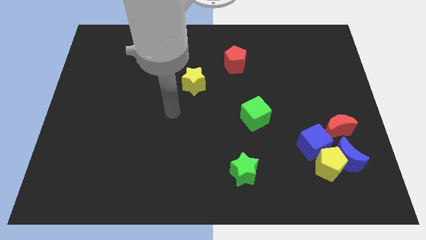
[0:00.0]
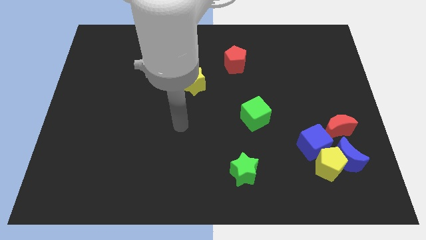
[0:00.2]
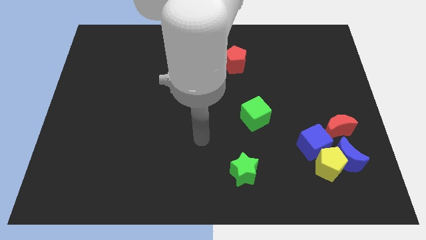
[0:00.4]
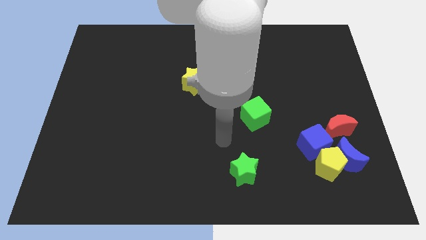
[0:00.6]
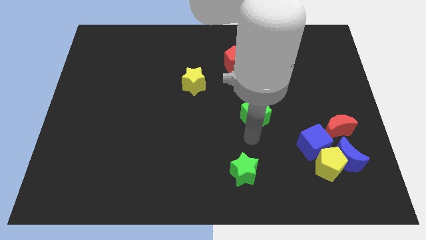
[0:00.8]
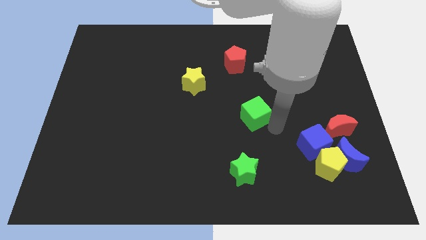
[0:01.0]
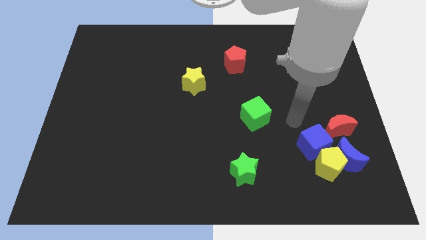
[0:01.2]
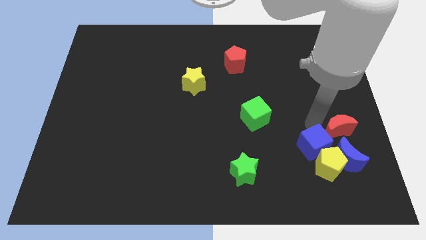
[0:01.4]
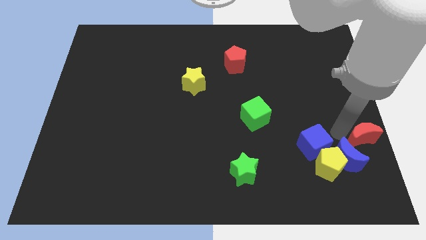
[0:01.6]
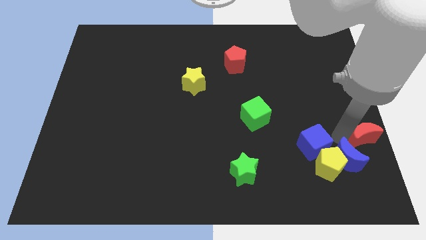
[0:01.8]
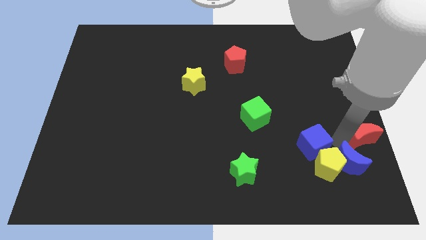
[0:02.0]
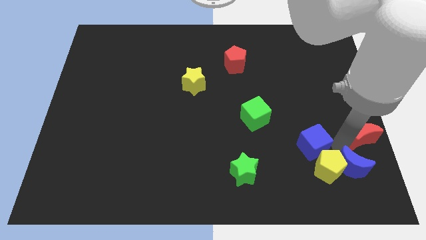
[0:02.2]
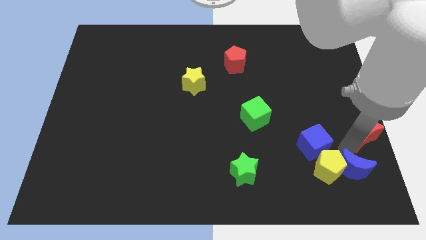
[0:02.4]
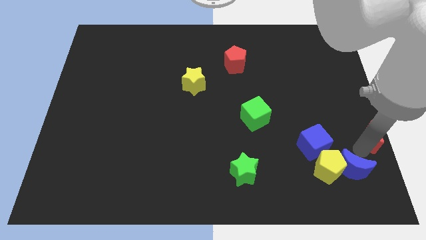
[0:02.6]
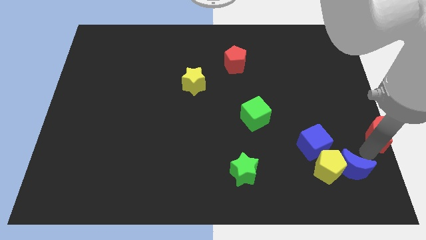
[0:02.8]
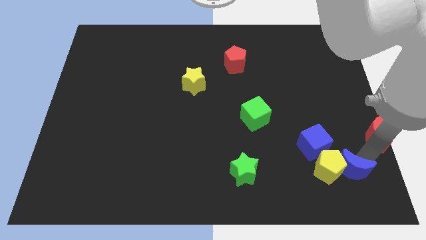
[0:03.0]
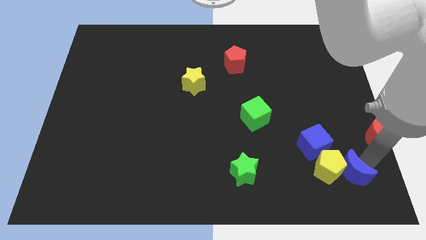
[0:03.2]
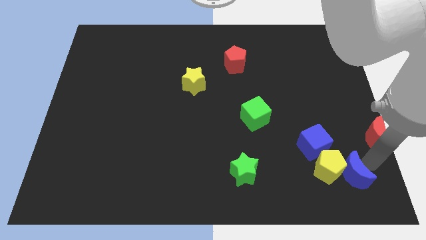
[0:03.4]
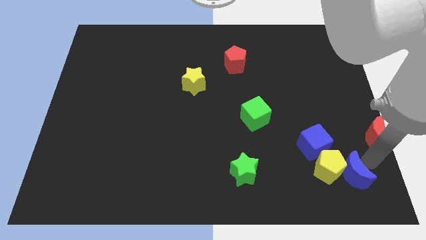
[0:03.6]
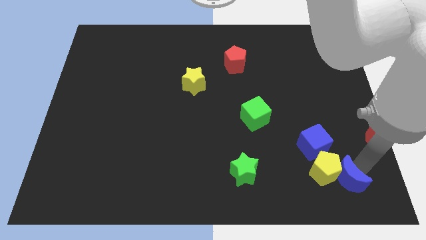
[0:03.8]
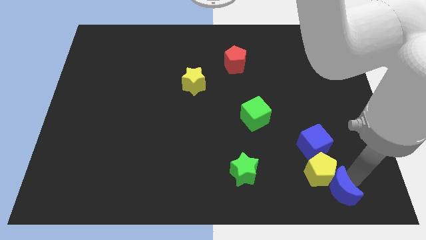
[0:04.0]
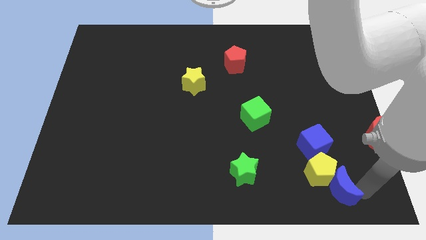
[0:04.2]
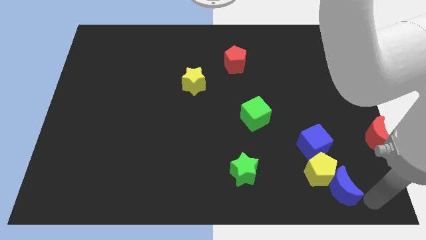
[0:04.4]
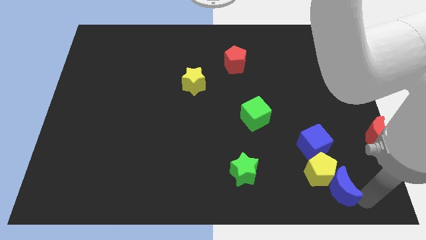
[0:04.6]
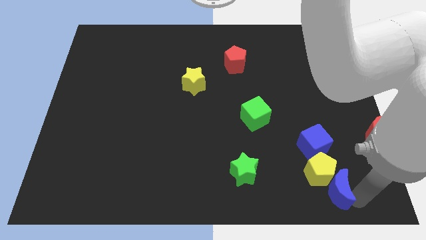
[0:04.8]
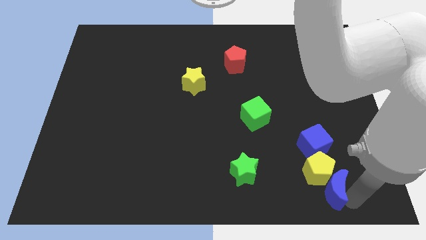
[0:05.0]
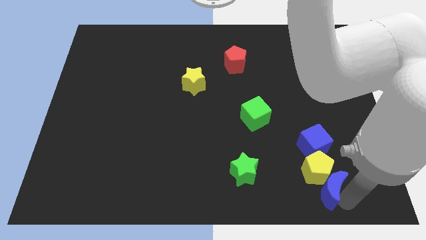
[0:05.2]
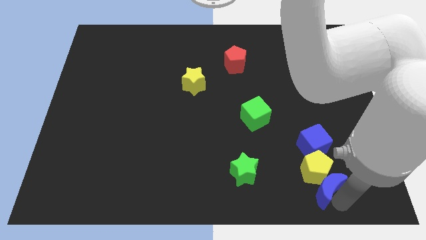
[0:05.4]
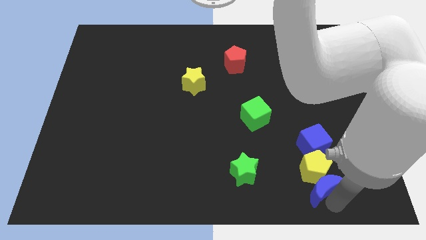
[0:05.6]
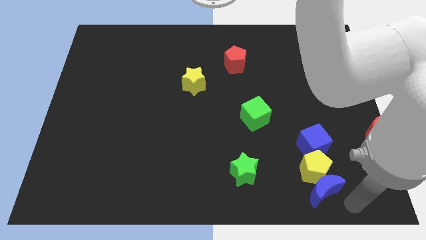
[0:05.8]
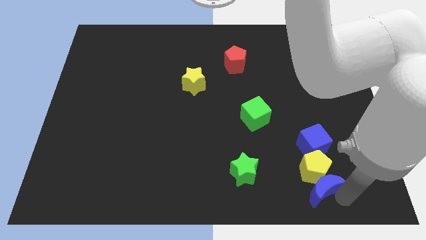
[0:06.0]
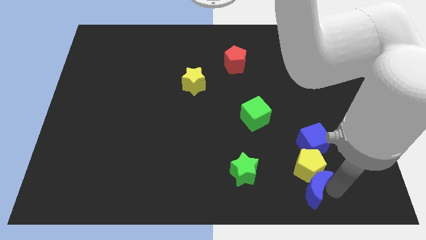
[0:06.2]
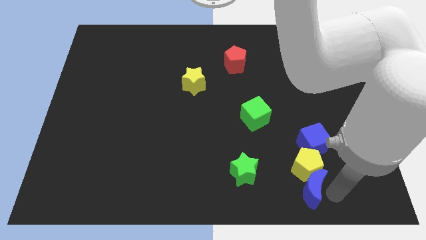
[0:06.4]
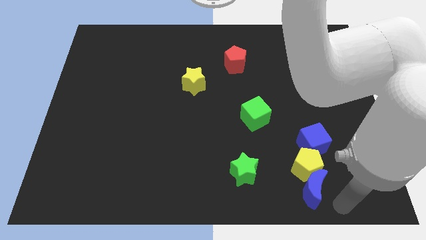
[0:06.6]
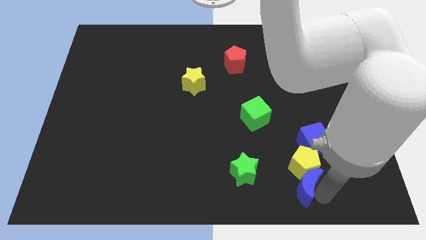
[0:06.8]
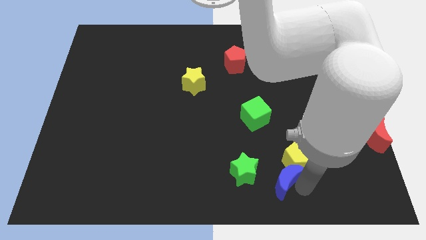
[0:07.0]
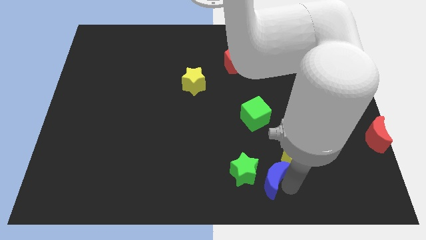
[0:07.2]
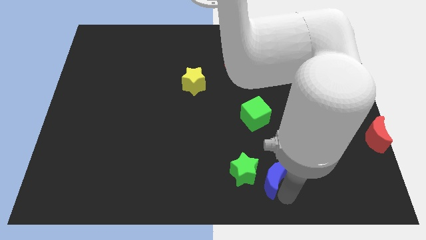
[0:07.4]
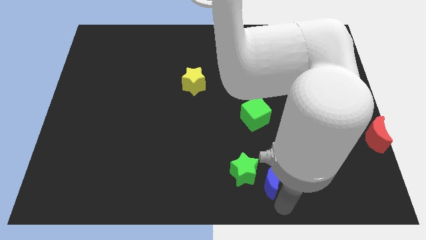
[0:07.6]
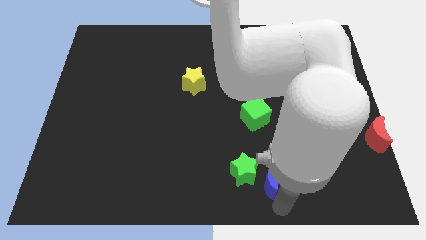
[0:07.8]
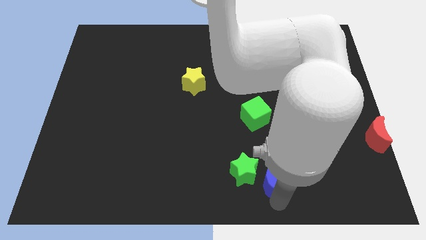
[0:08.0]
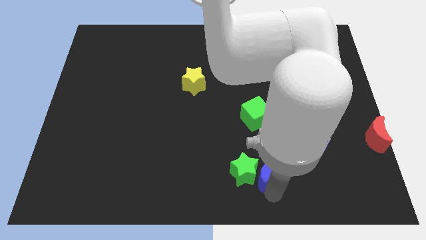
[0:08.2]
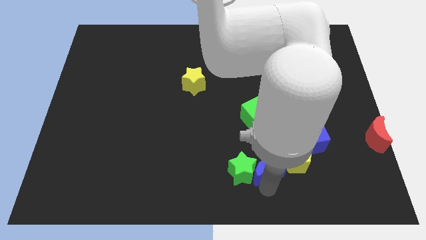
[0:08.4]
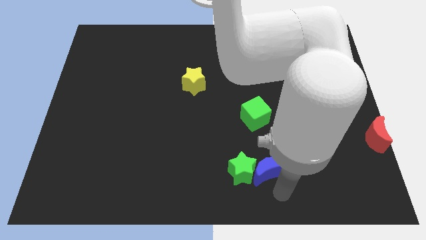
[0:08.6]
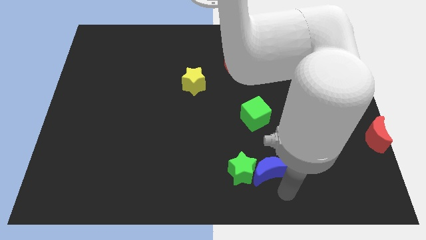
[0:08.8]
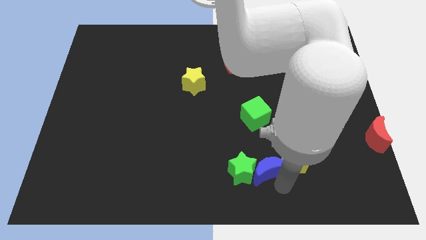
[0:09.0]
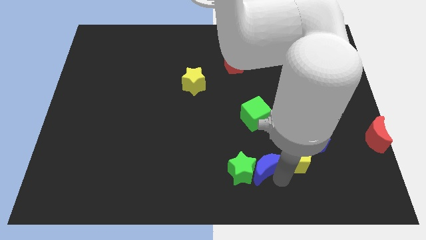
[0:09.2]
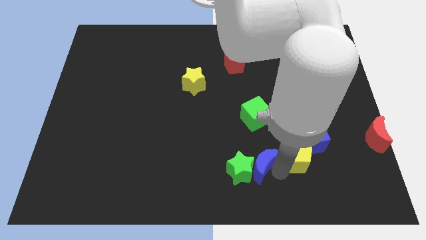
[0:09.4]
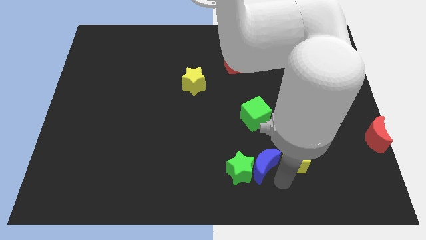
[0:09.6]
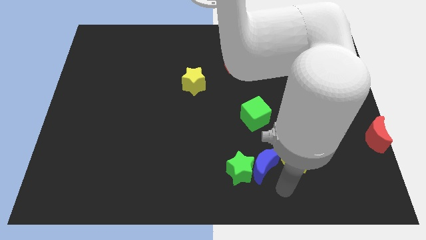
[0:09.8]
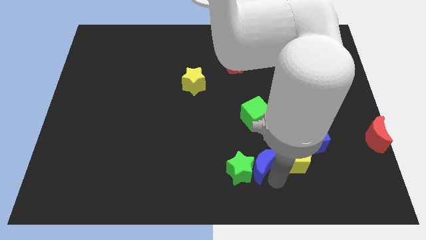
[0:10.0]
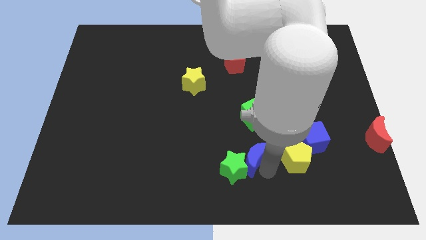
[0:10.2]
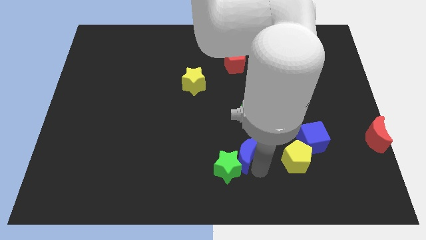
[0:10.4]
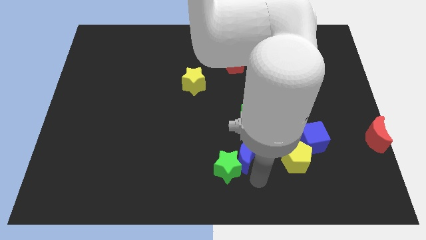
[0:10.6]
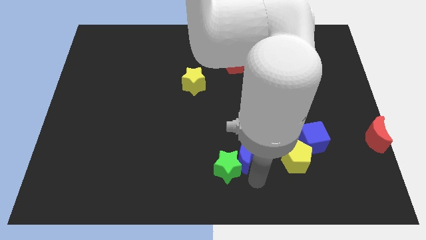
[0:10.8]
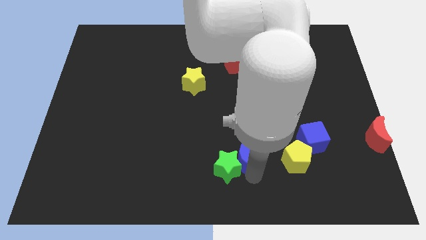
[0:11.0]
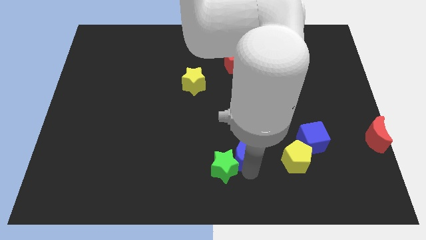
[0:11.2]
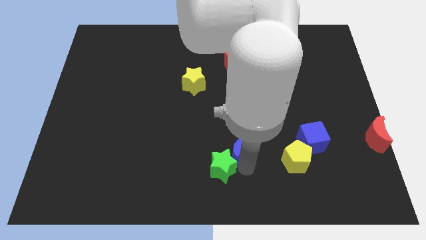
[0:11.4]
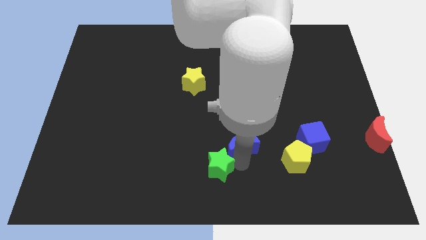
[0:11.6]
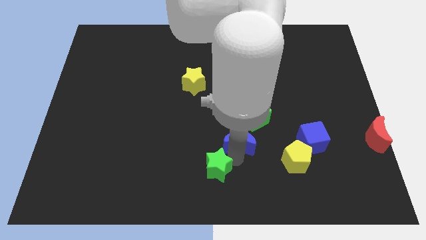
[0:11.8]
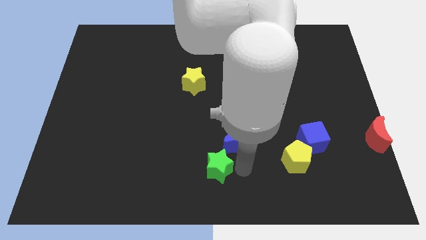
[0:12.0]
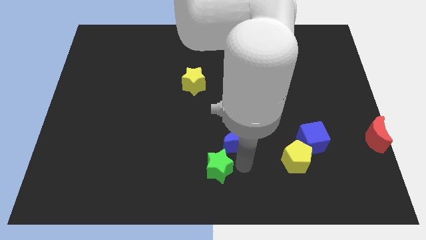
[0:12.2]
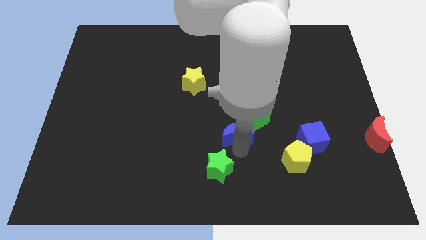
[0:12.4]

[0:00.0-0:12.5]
move the blue moon to the middle

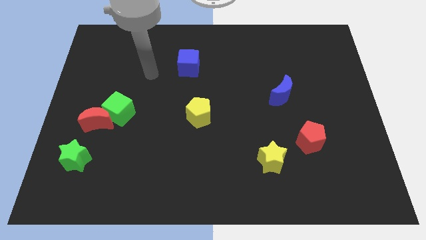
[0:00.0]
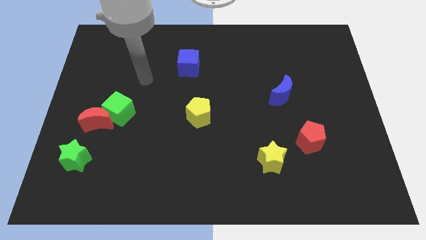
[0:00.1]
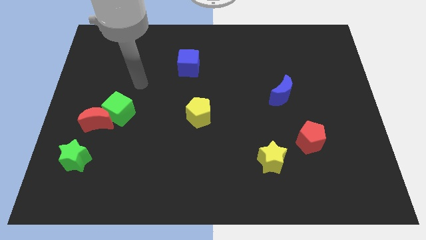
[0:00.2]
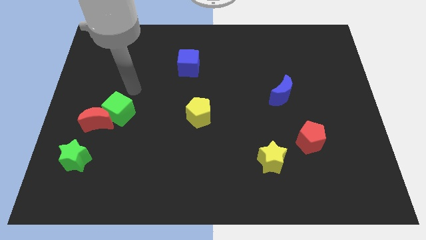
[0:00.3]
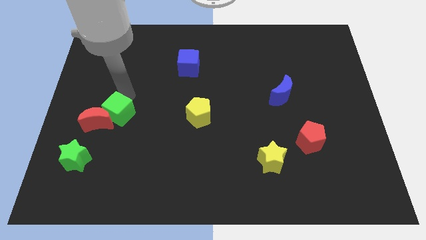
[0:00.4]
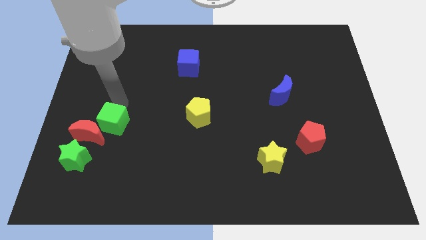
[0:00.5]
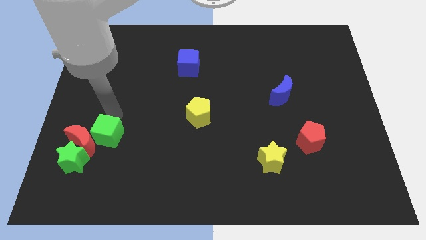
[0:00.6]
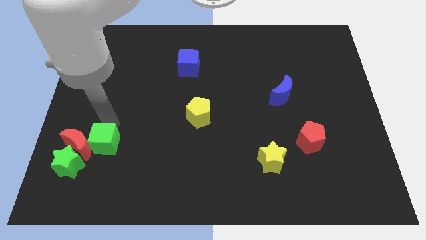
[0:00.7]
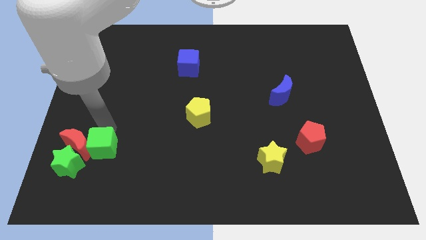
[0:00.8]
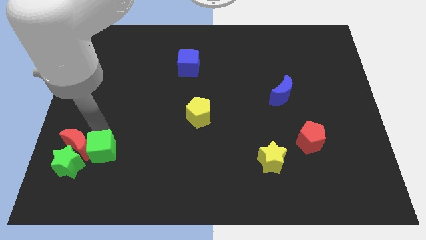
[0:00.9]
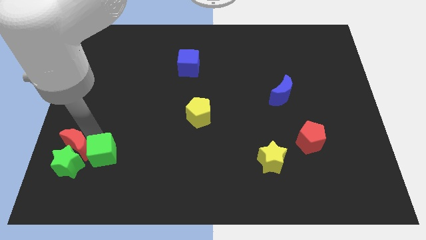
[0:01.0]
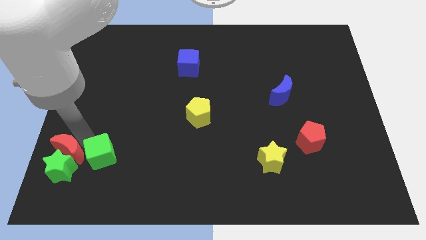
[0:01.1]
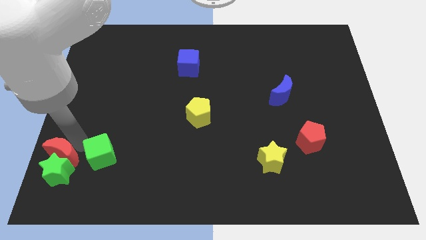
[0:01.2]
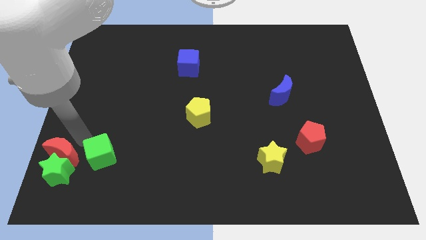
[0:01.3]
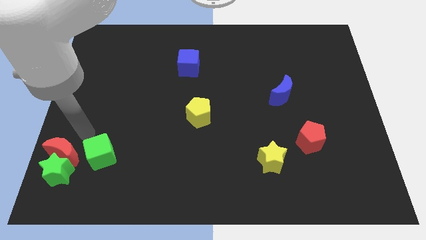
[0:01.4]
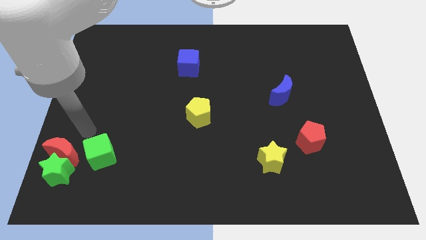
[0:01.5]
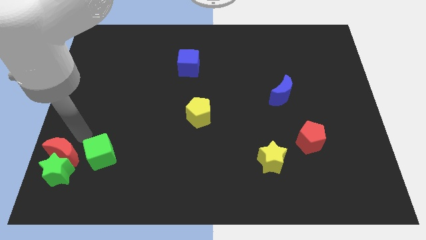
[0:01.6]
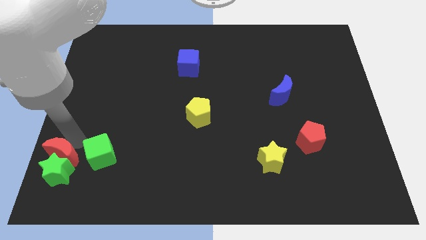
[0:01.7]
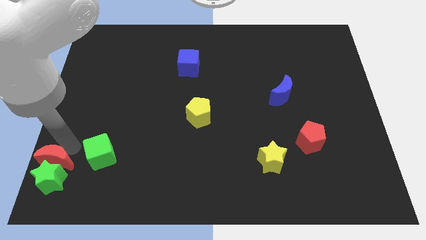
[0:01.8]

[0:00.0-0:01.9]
put the red moon to the lower left corner
